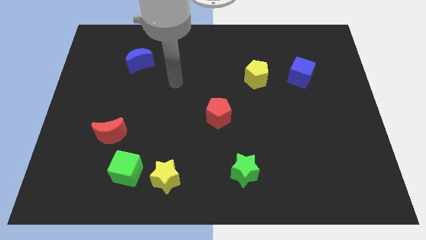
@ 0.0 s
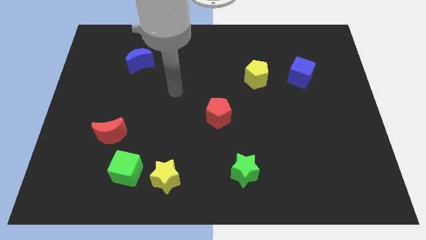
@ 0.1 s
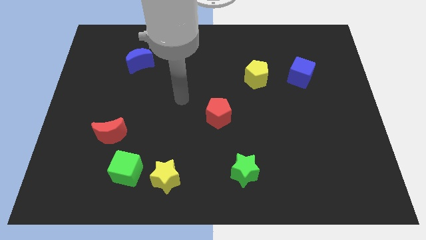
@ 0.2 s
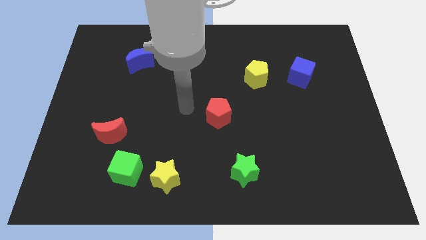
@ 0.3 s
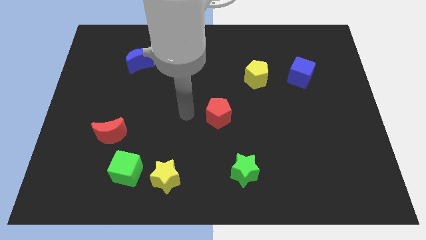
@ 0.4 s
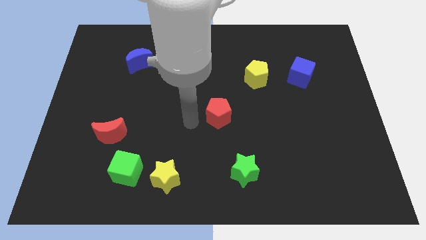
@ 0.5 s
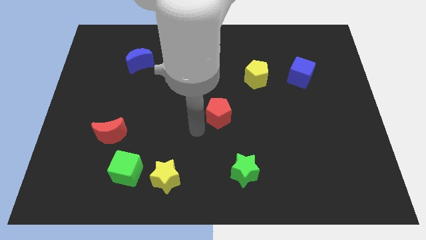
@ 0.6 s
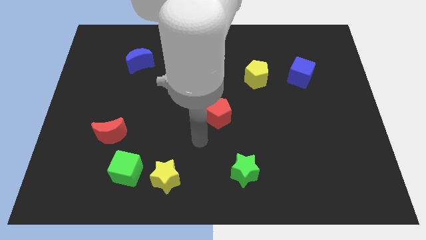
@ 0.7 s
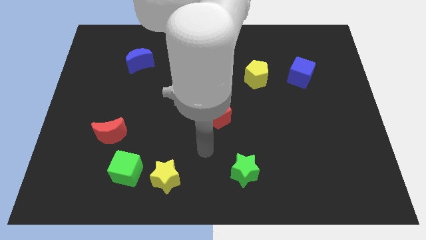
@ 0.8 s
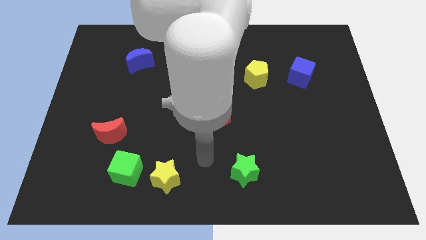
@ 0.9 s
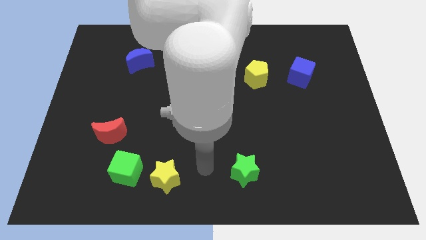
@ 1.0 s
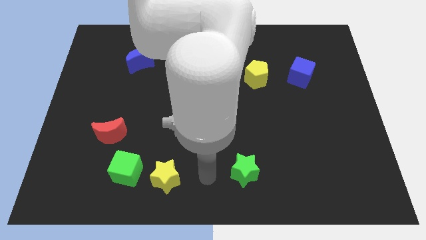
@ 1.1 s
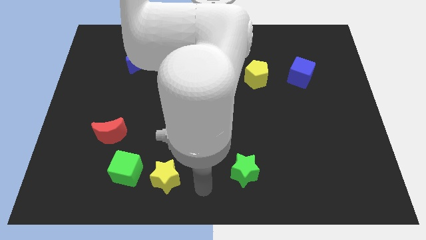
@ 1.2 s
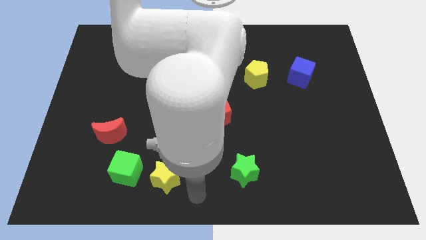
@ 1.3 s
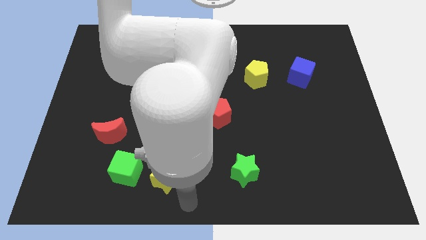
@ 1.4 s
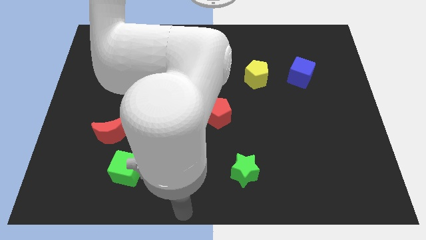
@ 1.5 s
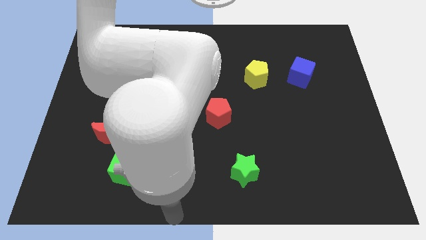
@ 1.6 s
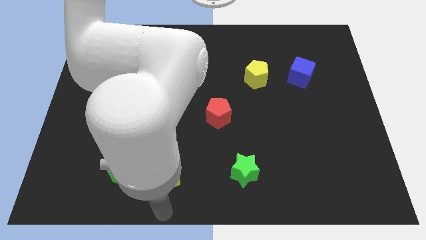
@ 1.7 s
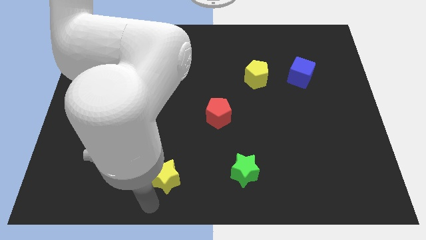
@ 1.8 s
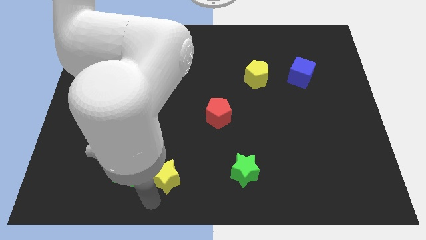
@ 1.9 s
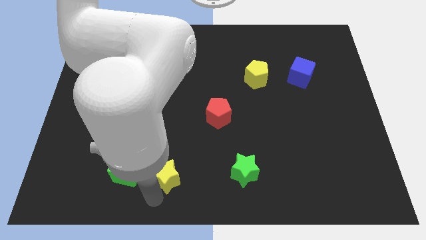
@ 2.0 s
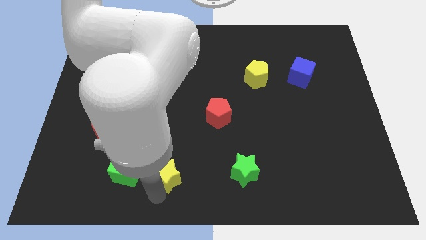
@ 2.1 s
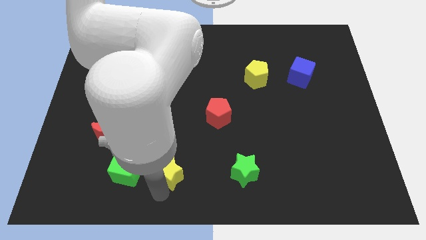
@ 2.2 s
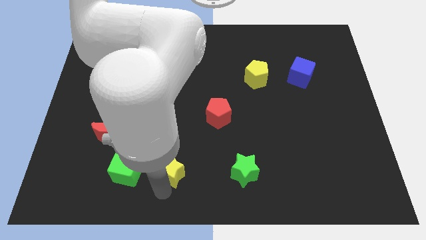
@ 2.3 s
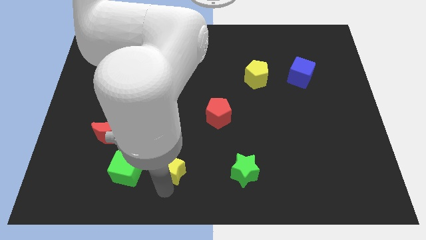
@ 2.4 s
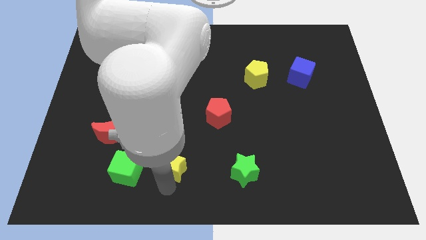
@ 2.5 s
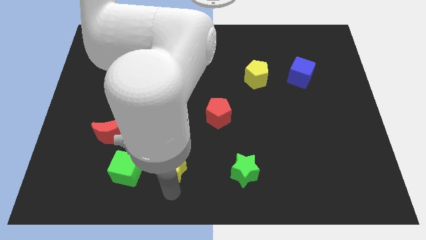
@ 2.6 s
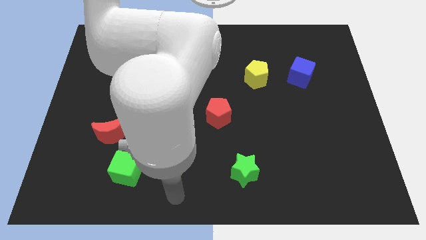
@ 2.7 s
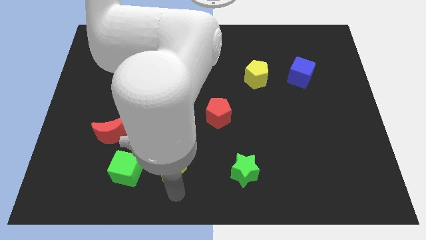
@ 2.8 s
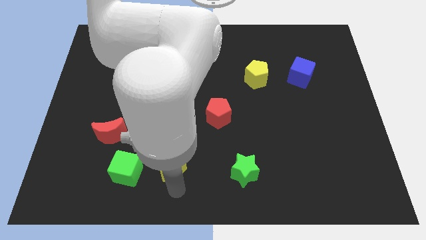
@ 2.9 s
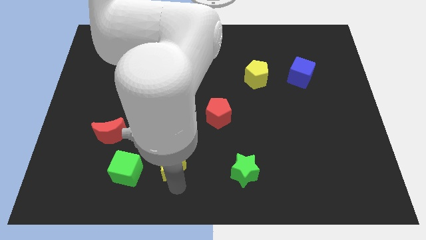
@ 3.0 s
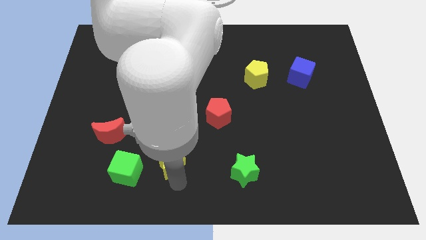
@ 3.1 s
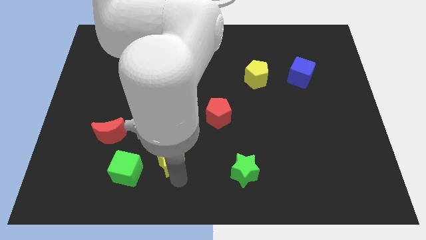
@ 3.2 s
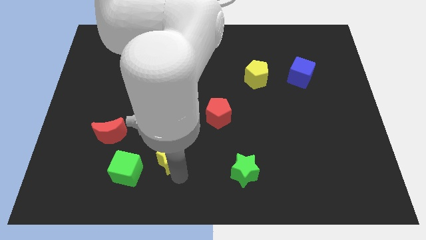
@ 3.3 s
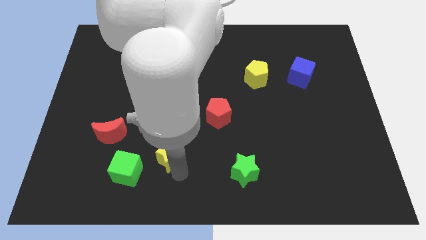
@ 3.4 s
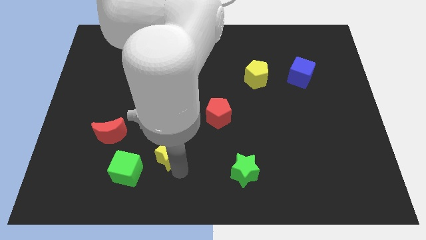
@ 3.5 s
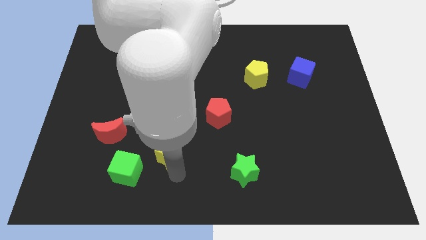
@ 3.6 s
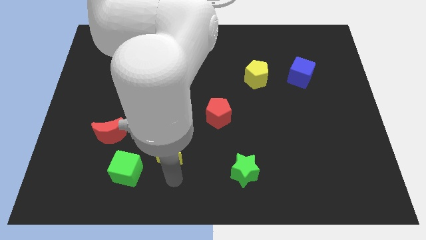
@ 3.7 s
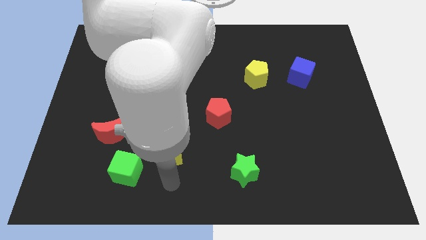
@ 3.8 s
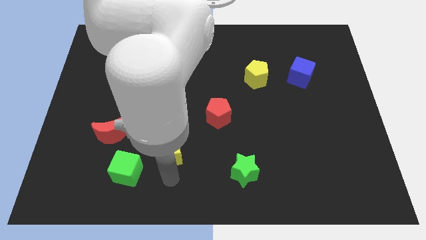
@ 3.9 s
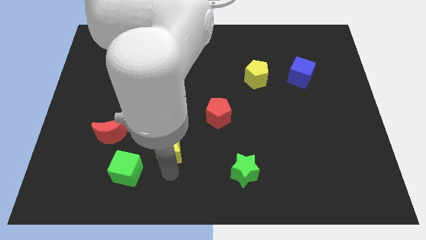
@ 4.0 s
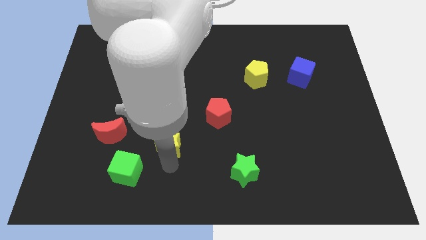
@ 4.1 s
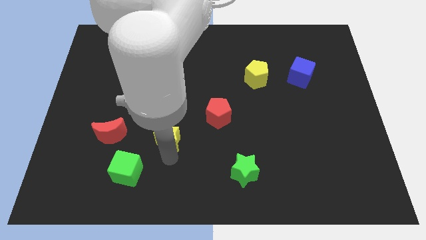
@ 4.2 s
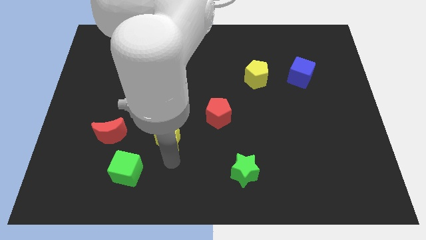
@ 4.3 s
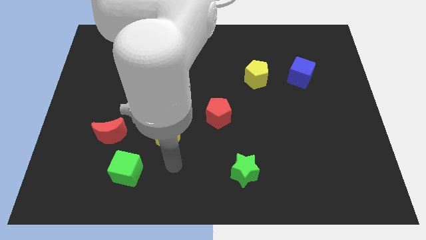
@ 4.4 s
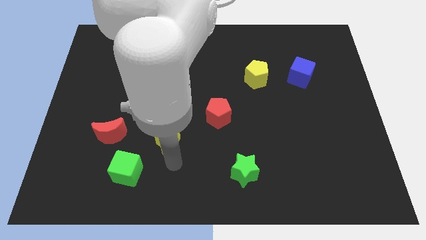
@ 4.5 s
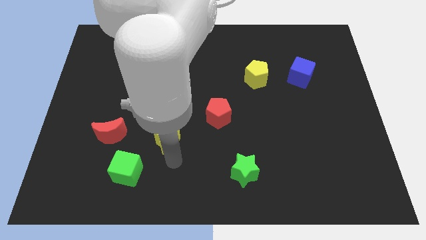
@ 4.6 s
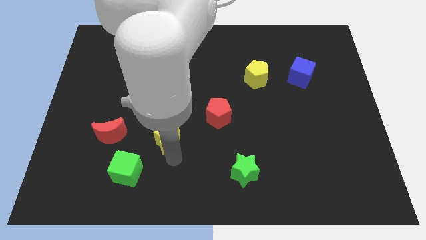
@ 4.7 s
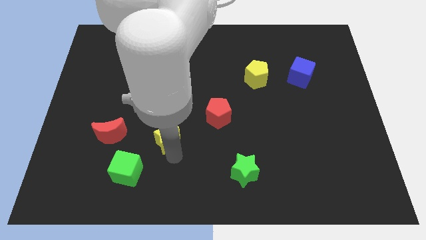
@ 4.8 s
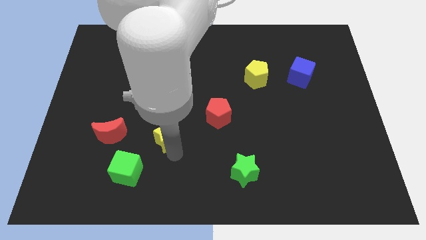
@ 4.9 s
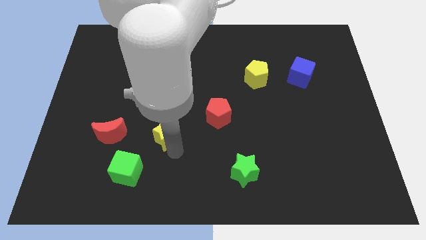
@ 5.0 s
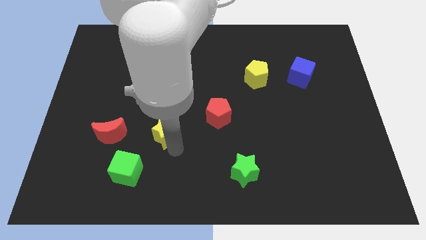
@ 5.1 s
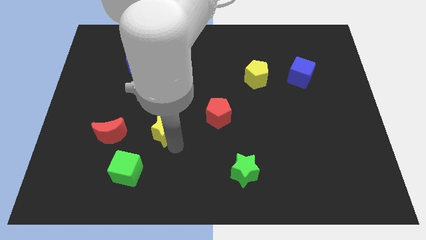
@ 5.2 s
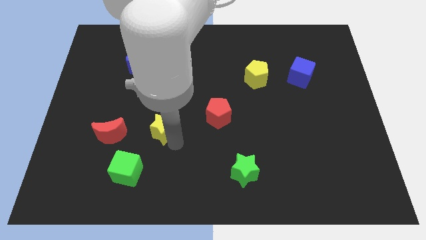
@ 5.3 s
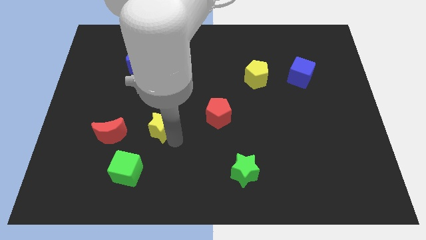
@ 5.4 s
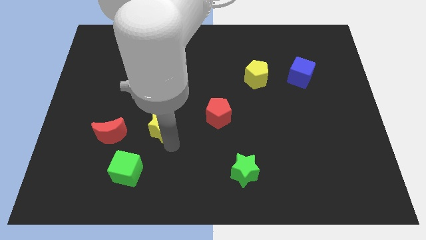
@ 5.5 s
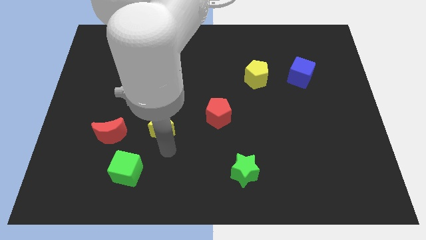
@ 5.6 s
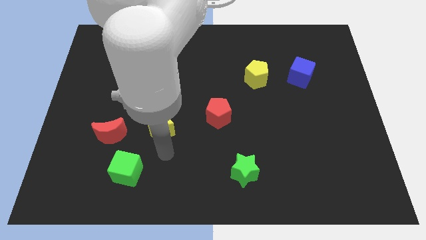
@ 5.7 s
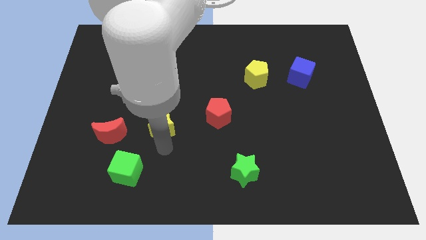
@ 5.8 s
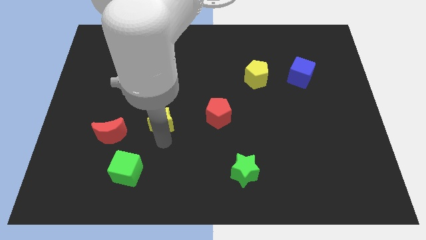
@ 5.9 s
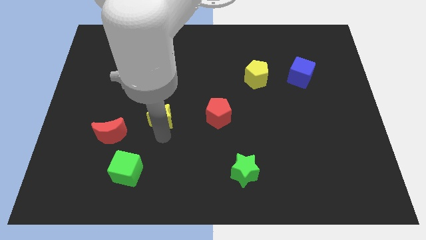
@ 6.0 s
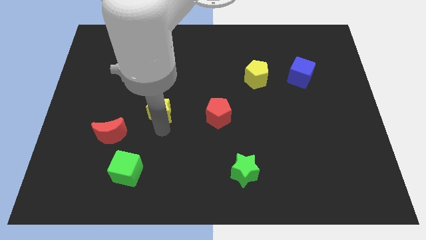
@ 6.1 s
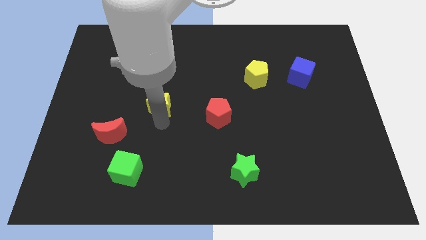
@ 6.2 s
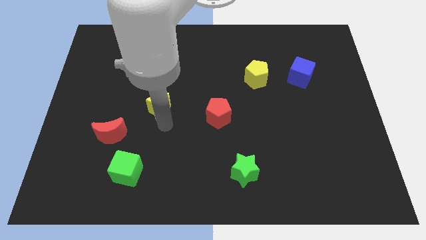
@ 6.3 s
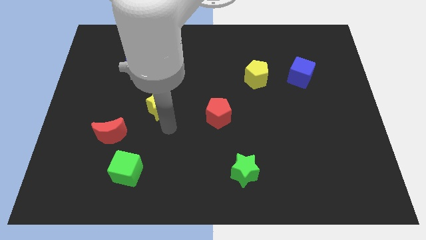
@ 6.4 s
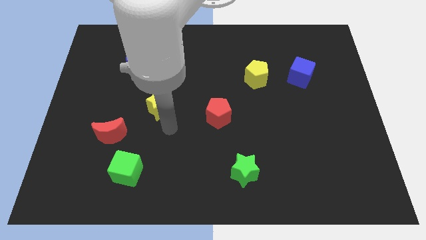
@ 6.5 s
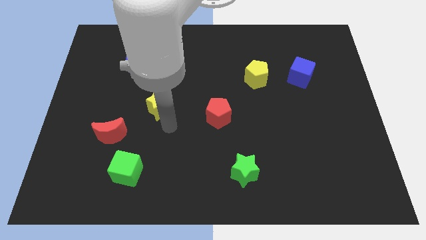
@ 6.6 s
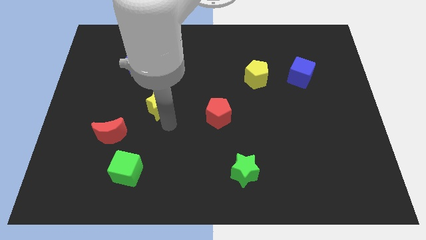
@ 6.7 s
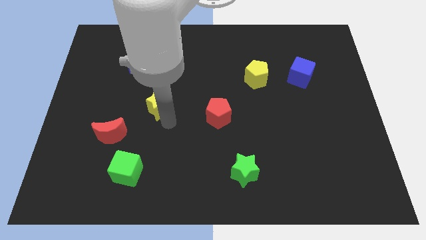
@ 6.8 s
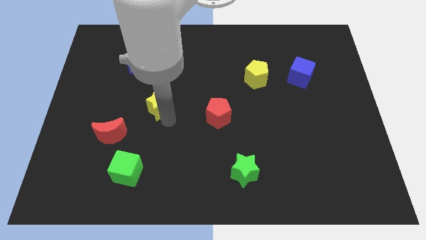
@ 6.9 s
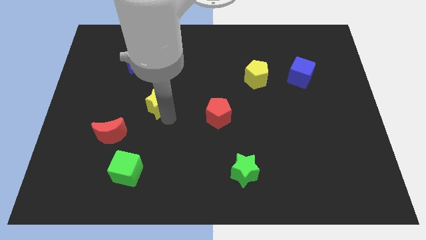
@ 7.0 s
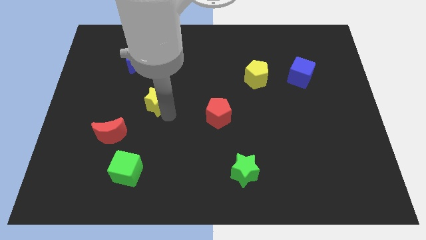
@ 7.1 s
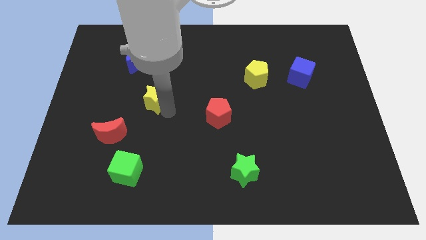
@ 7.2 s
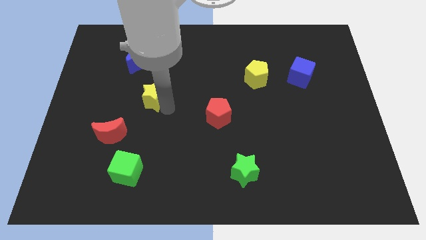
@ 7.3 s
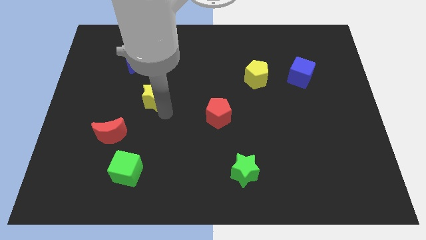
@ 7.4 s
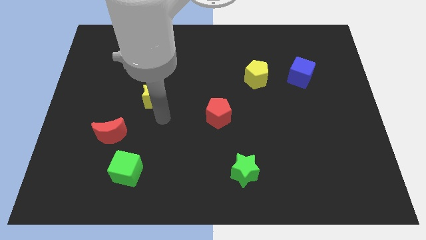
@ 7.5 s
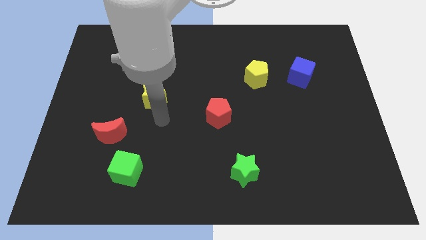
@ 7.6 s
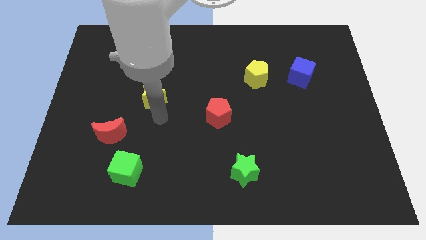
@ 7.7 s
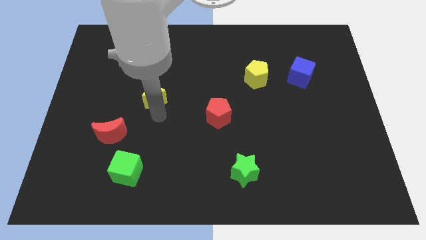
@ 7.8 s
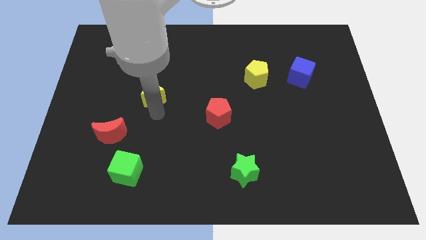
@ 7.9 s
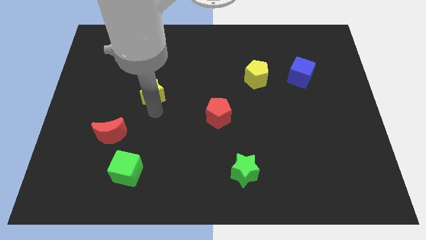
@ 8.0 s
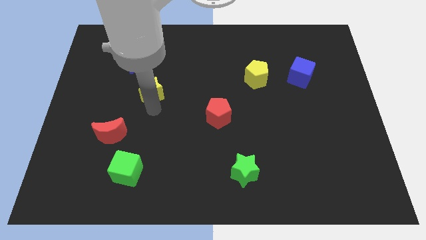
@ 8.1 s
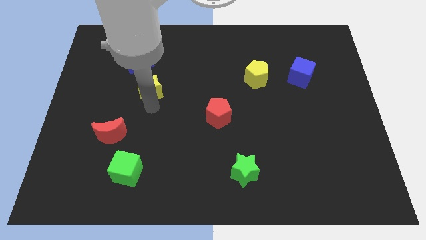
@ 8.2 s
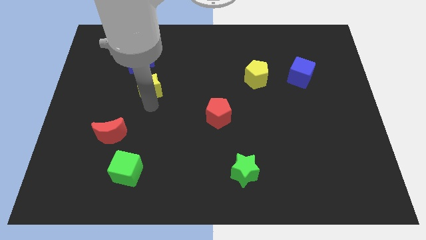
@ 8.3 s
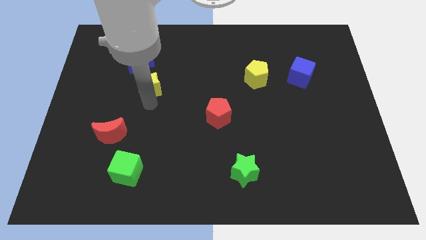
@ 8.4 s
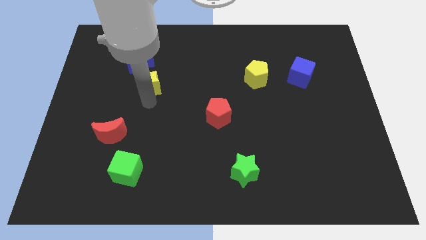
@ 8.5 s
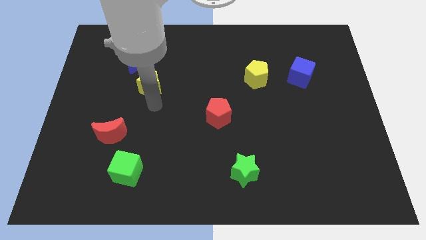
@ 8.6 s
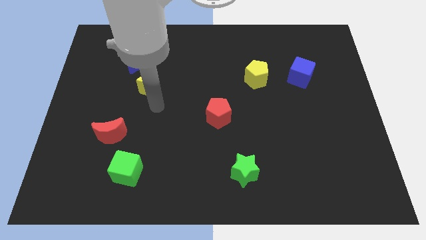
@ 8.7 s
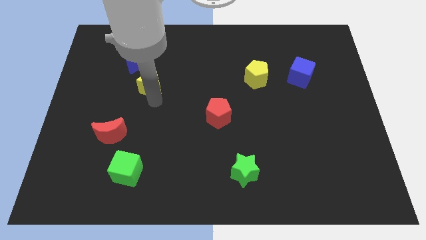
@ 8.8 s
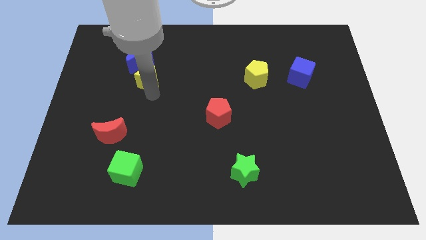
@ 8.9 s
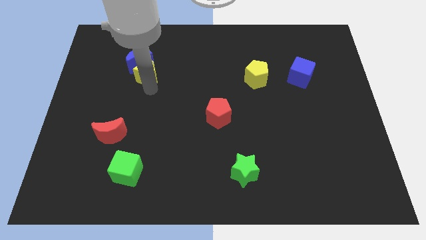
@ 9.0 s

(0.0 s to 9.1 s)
put the yellow star next to the blue moon
